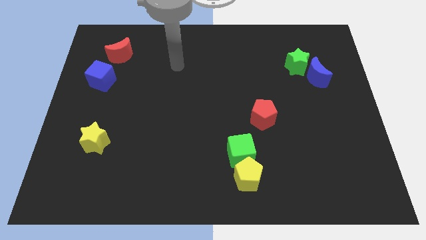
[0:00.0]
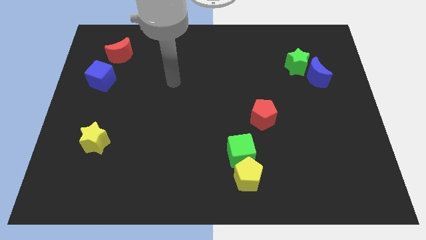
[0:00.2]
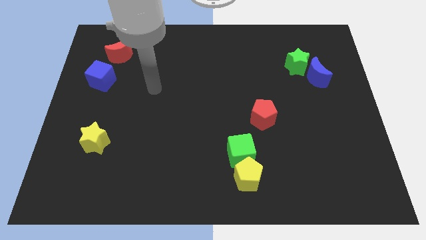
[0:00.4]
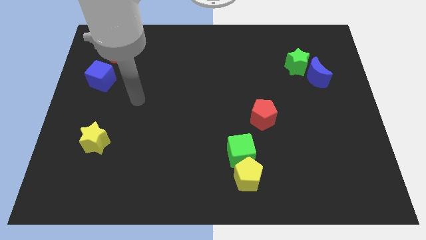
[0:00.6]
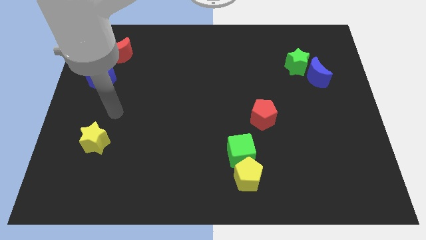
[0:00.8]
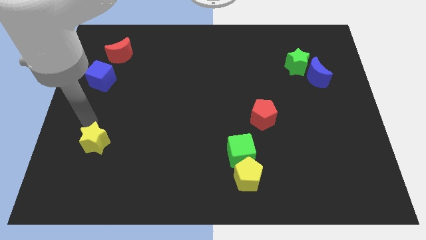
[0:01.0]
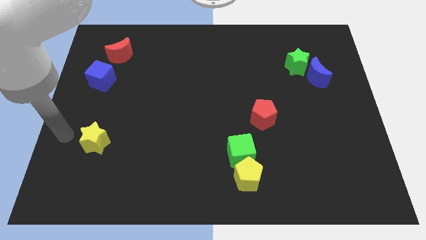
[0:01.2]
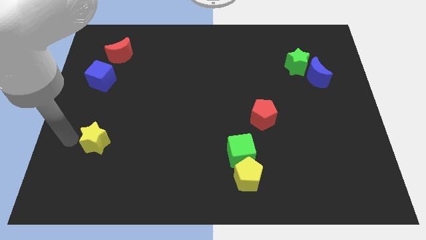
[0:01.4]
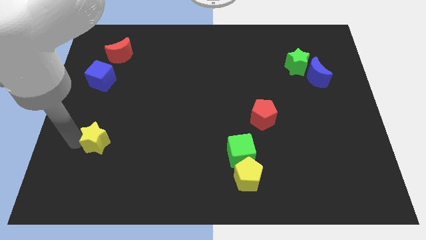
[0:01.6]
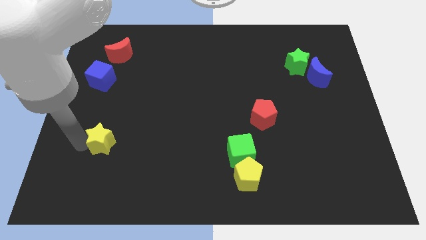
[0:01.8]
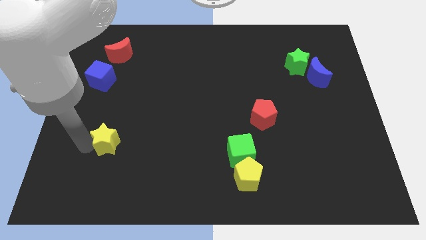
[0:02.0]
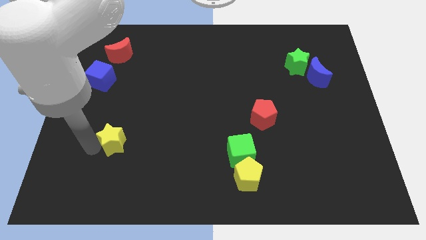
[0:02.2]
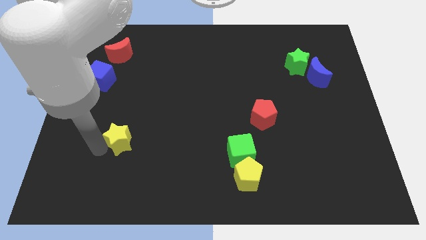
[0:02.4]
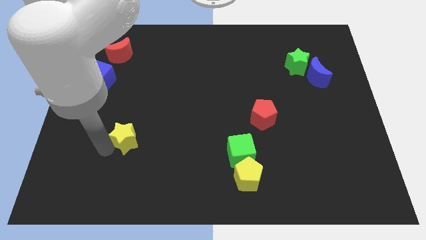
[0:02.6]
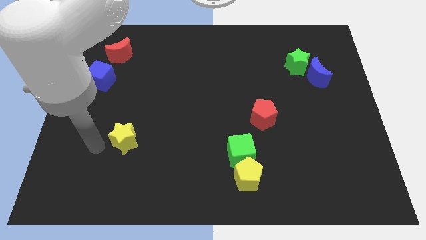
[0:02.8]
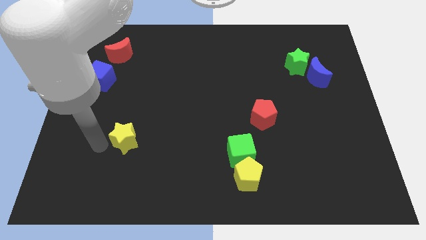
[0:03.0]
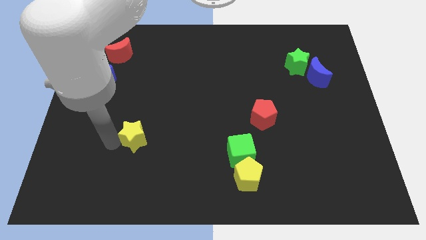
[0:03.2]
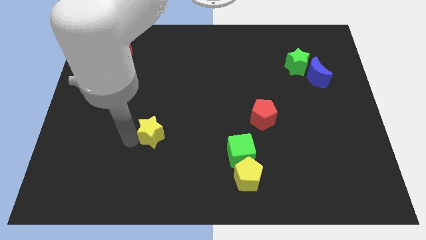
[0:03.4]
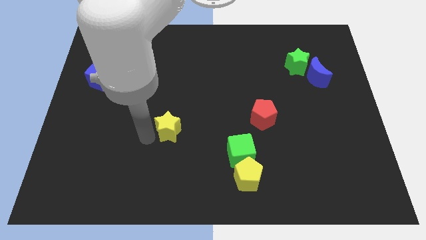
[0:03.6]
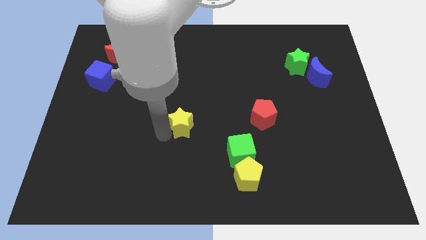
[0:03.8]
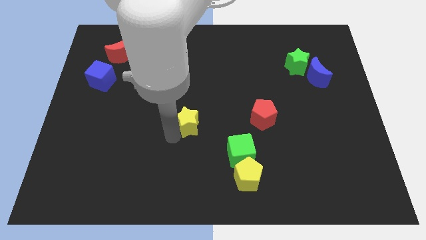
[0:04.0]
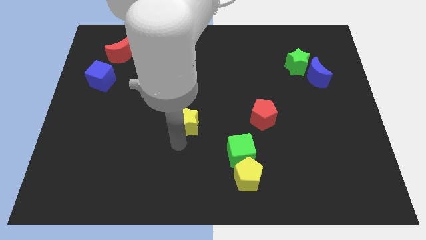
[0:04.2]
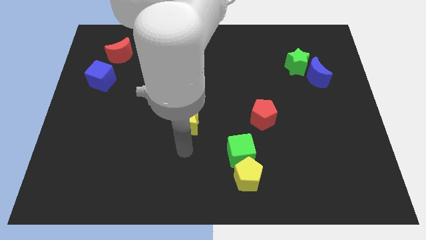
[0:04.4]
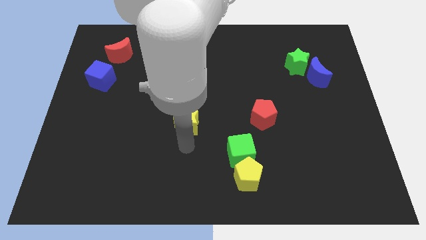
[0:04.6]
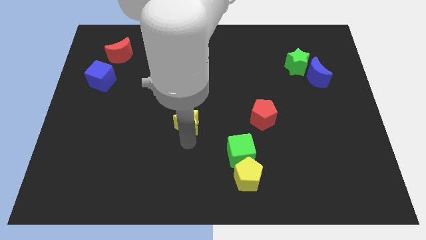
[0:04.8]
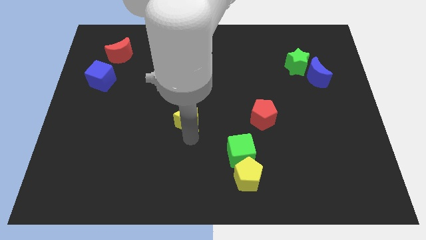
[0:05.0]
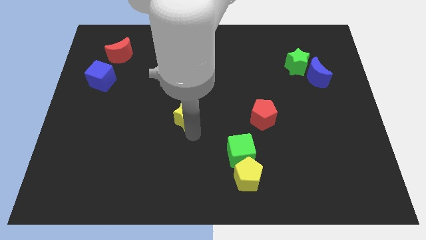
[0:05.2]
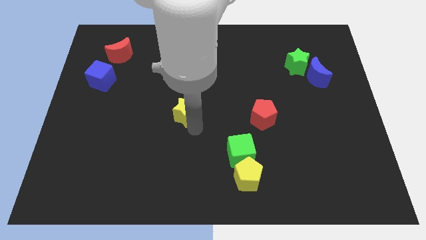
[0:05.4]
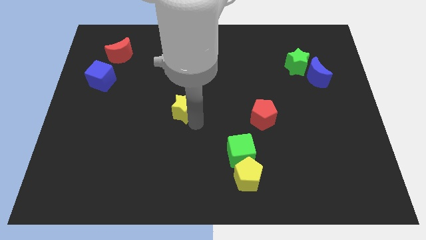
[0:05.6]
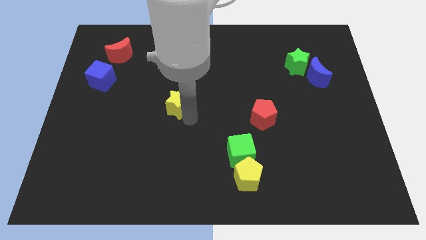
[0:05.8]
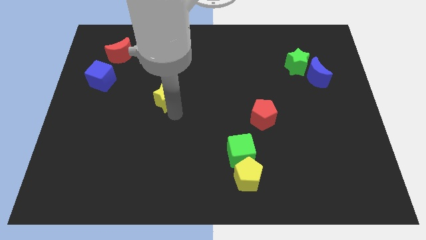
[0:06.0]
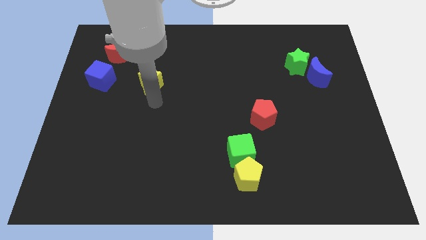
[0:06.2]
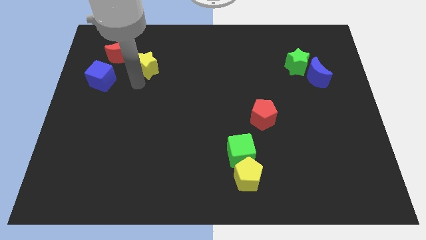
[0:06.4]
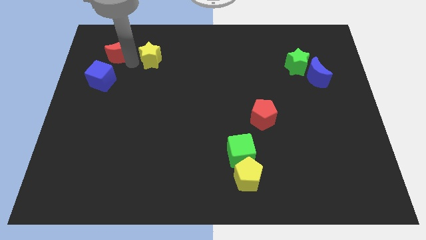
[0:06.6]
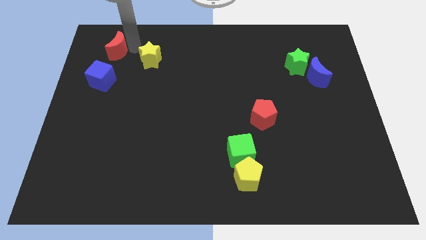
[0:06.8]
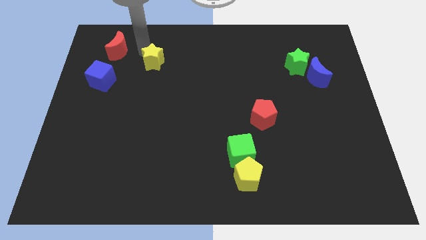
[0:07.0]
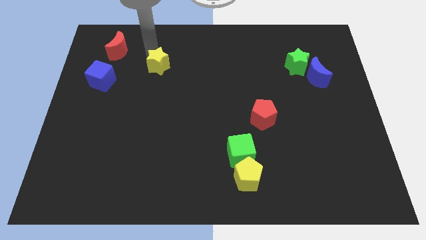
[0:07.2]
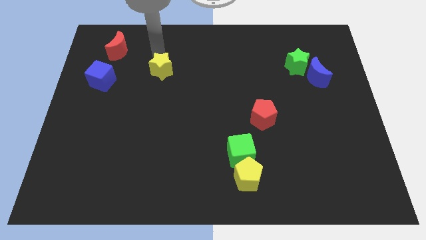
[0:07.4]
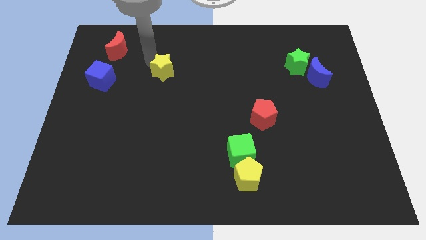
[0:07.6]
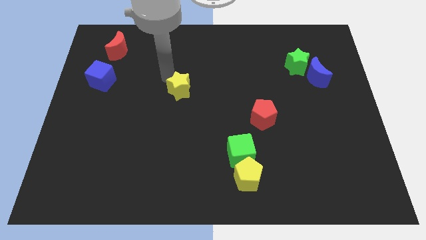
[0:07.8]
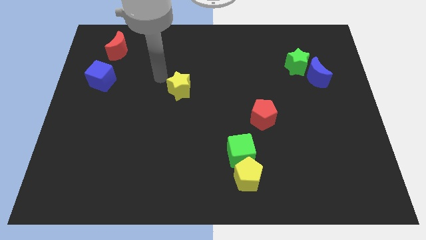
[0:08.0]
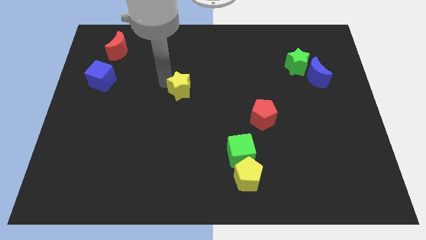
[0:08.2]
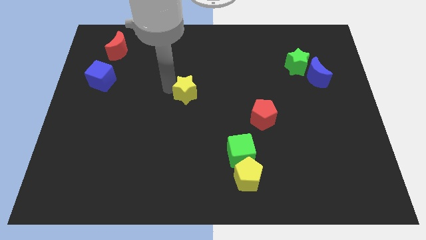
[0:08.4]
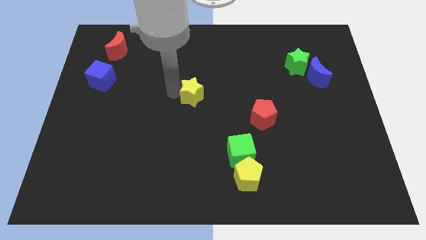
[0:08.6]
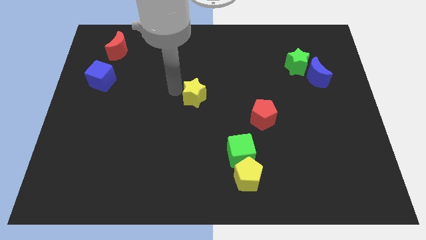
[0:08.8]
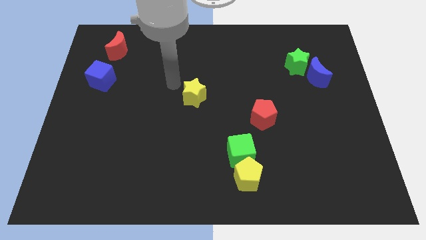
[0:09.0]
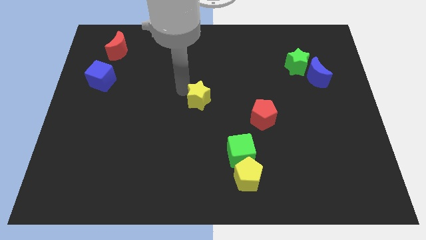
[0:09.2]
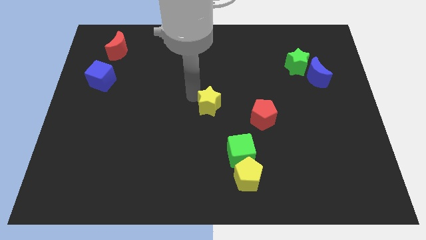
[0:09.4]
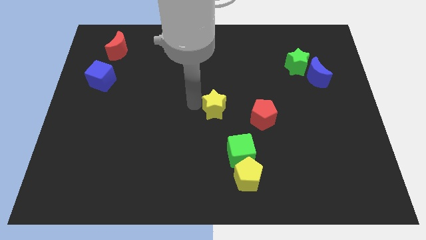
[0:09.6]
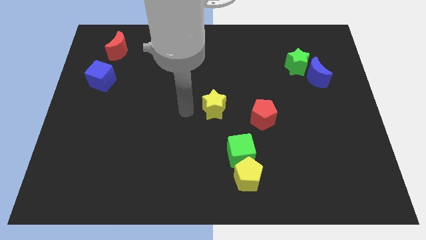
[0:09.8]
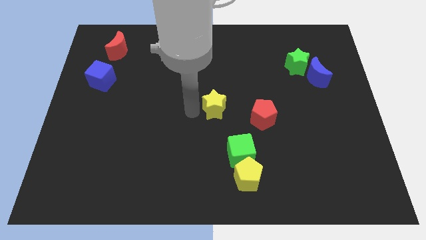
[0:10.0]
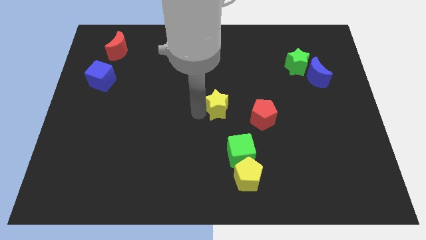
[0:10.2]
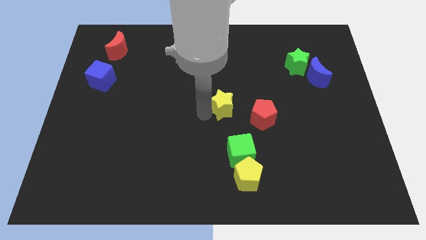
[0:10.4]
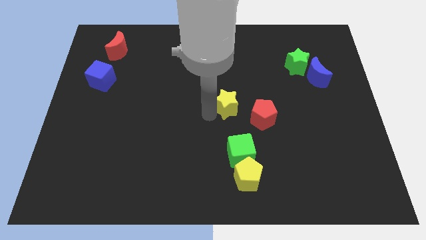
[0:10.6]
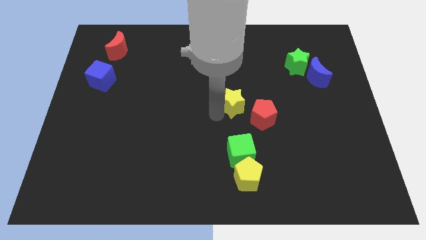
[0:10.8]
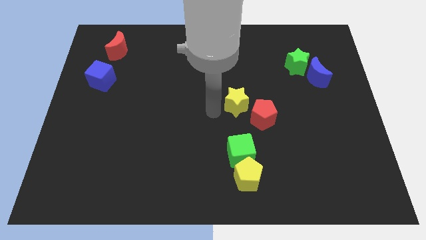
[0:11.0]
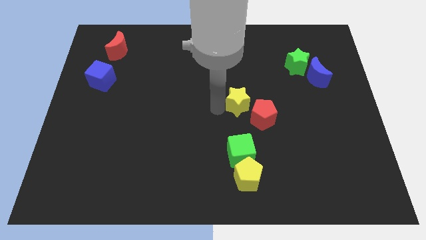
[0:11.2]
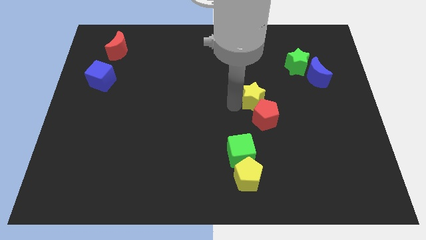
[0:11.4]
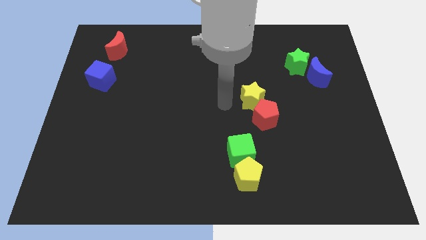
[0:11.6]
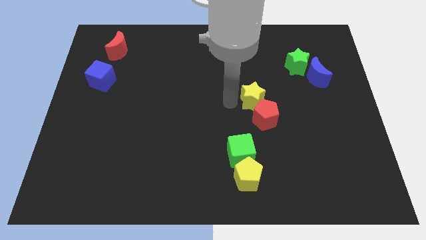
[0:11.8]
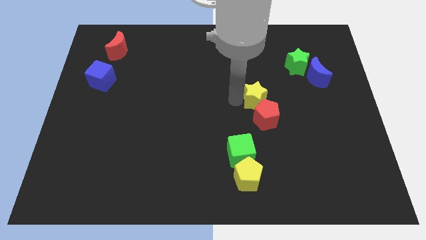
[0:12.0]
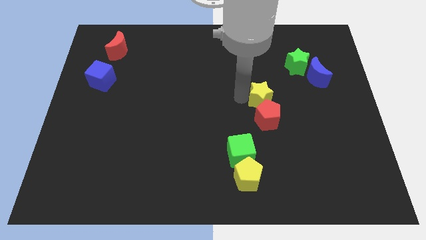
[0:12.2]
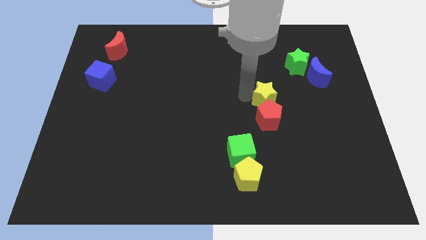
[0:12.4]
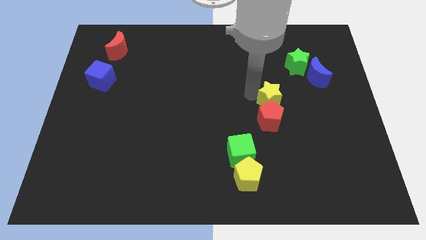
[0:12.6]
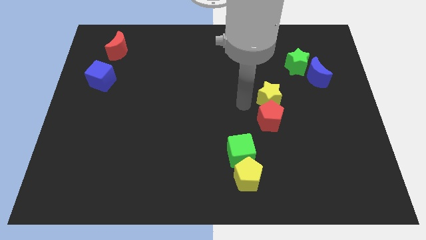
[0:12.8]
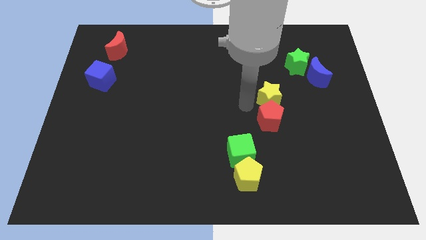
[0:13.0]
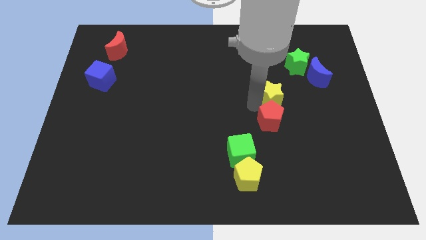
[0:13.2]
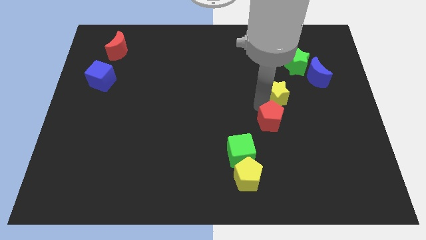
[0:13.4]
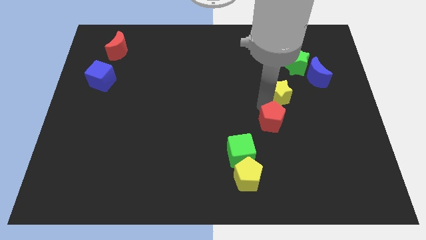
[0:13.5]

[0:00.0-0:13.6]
put the yellow star to the bottom left side of the blue moon
